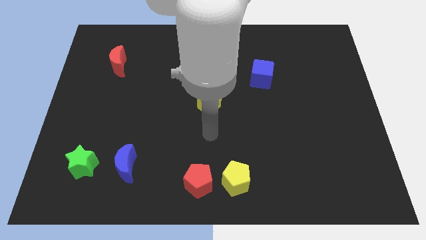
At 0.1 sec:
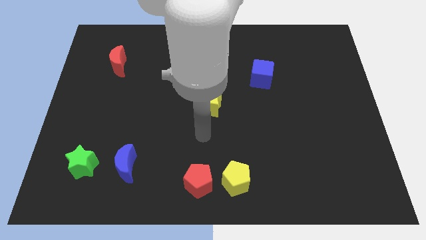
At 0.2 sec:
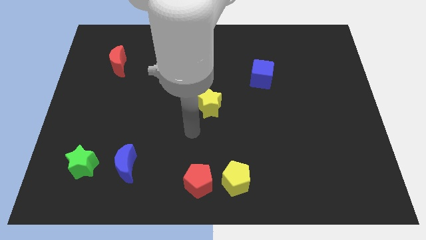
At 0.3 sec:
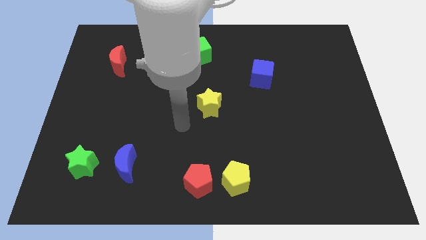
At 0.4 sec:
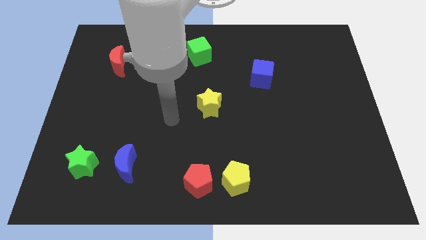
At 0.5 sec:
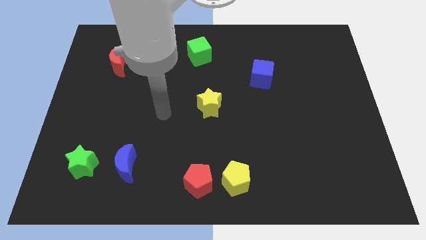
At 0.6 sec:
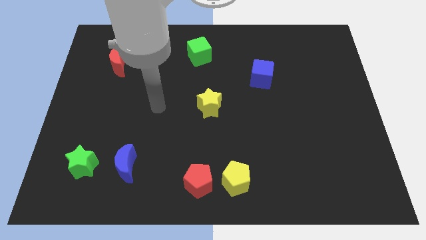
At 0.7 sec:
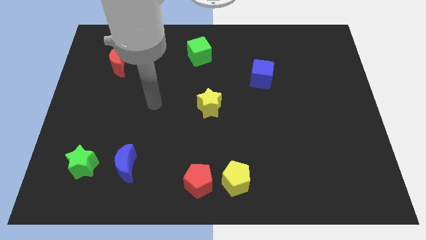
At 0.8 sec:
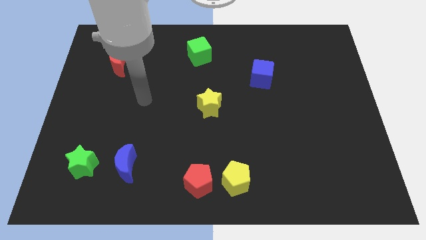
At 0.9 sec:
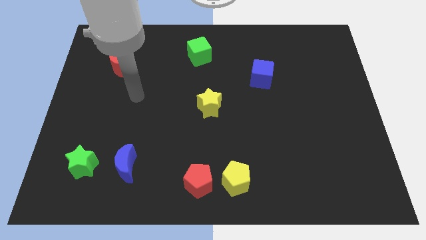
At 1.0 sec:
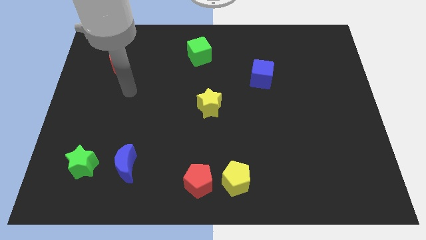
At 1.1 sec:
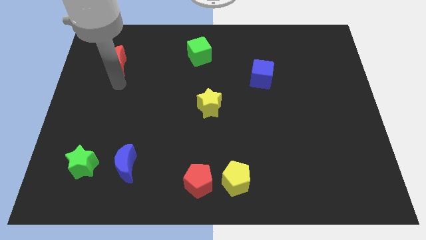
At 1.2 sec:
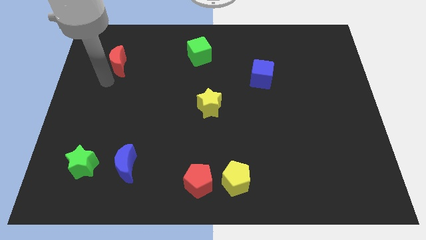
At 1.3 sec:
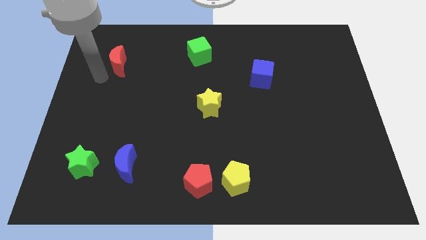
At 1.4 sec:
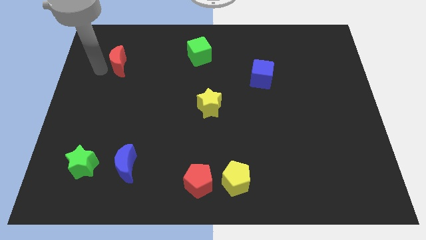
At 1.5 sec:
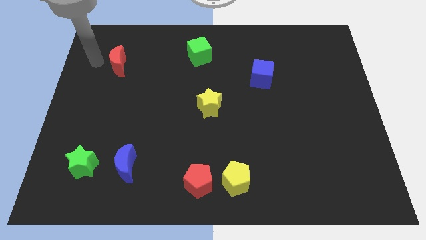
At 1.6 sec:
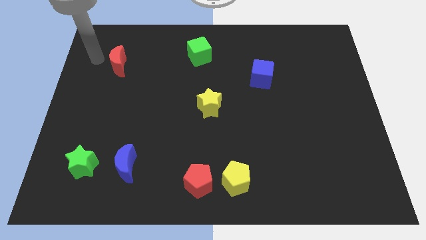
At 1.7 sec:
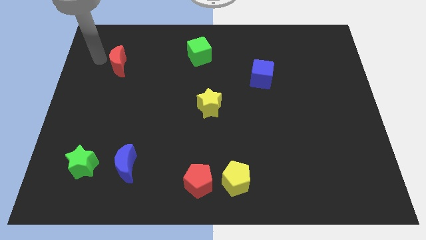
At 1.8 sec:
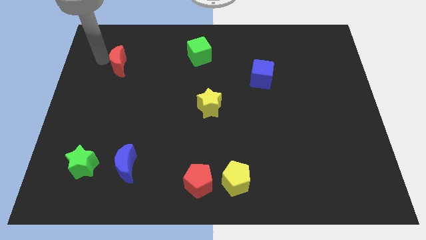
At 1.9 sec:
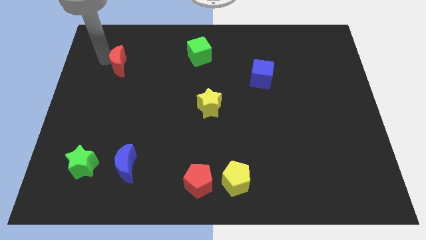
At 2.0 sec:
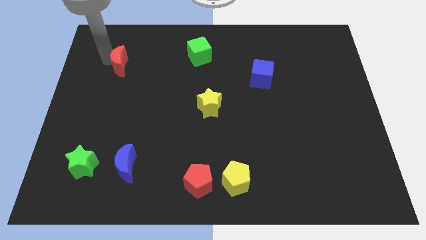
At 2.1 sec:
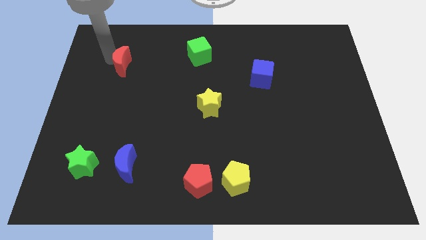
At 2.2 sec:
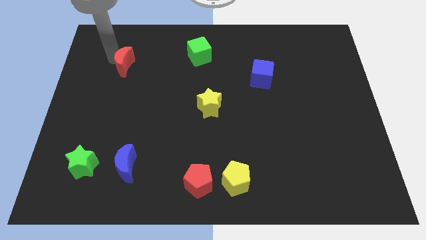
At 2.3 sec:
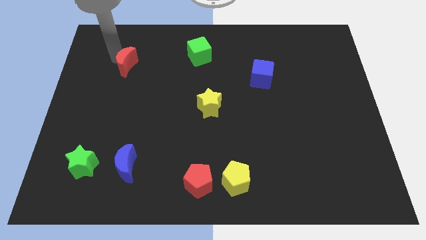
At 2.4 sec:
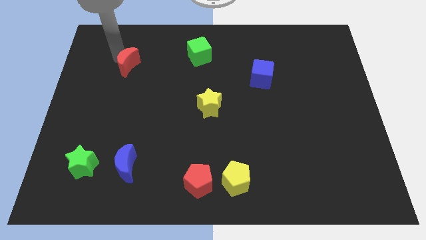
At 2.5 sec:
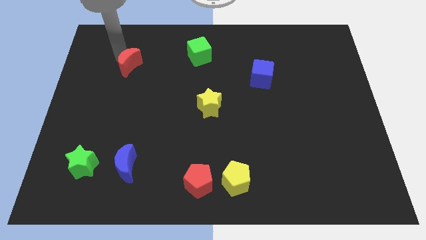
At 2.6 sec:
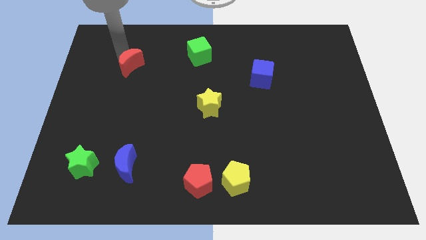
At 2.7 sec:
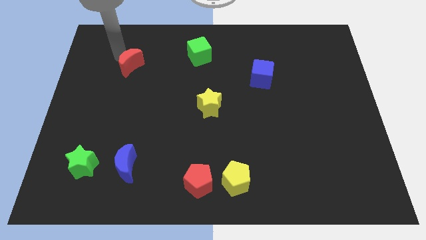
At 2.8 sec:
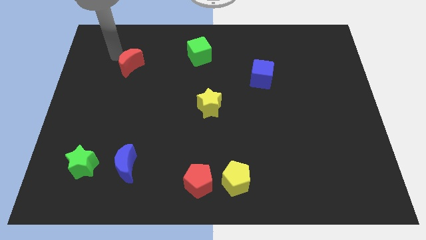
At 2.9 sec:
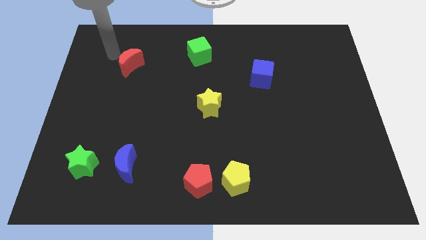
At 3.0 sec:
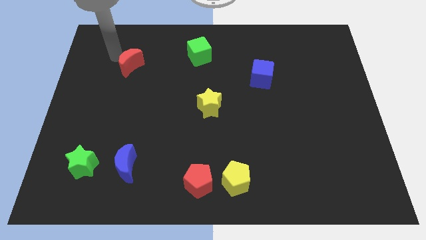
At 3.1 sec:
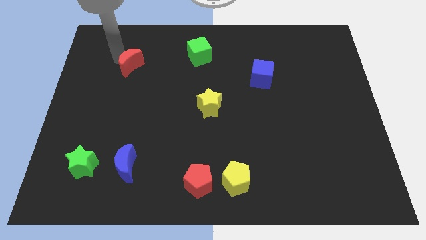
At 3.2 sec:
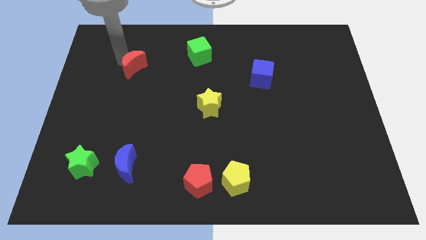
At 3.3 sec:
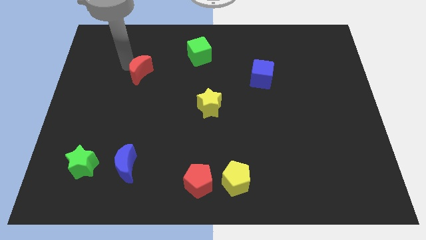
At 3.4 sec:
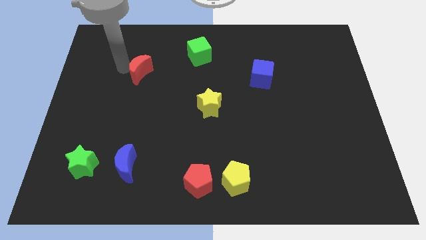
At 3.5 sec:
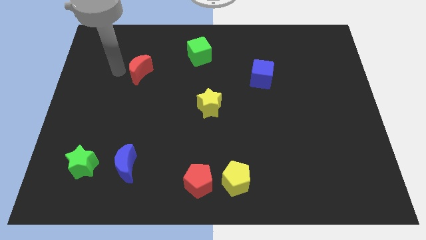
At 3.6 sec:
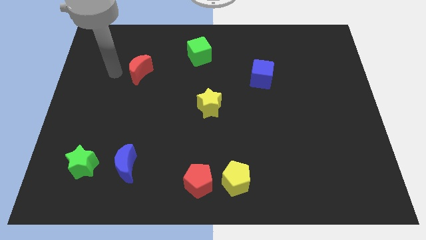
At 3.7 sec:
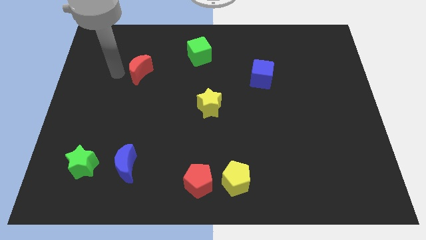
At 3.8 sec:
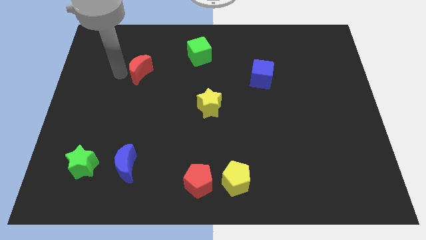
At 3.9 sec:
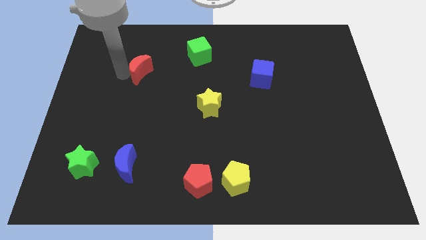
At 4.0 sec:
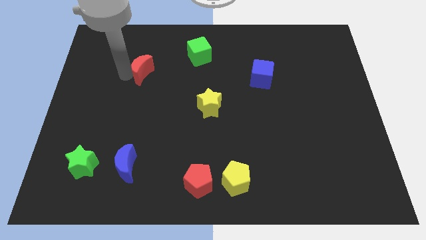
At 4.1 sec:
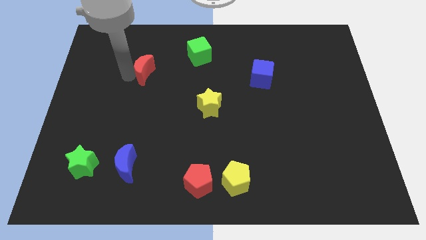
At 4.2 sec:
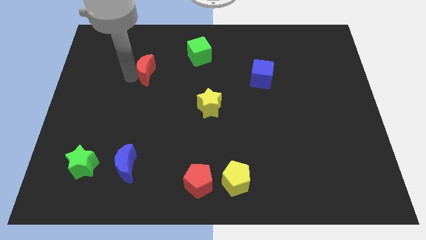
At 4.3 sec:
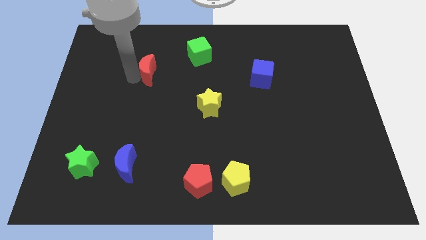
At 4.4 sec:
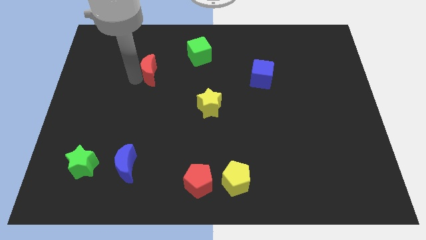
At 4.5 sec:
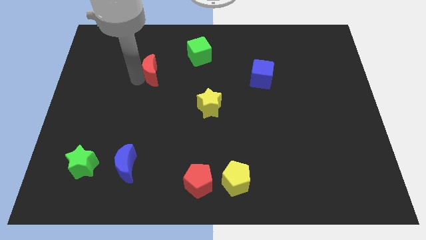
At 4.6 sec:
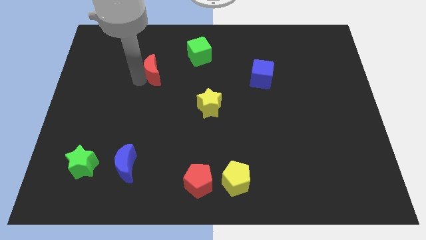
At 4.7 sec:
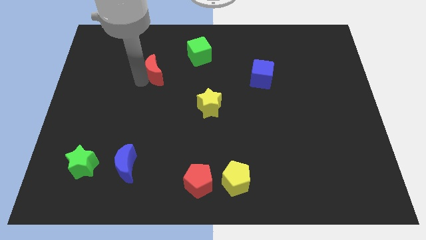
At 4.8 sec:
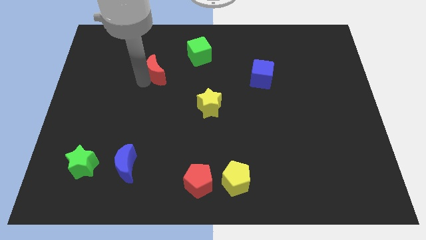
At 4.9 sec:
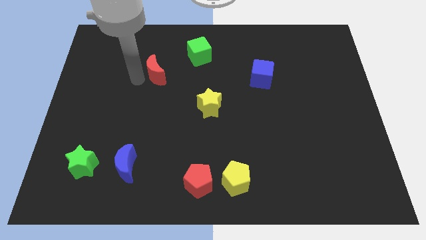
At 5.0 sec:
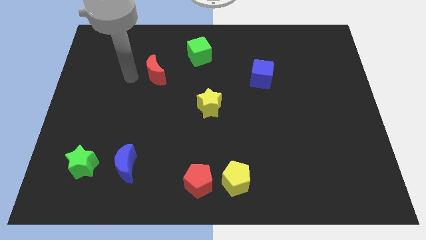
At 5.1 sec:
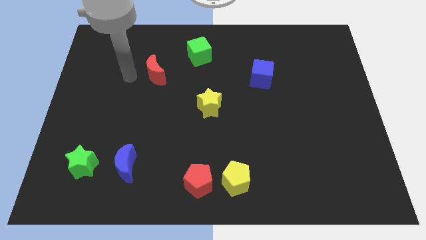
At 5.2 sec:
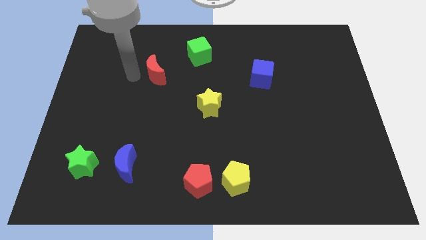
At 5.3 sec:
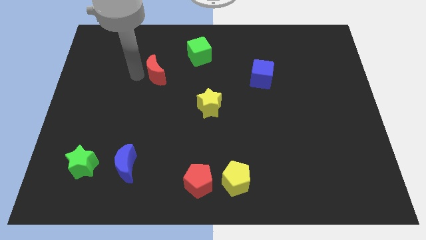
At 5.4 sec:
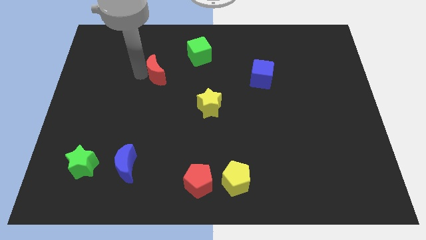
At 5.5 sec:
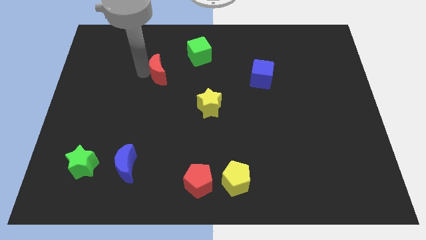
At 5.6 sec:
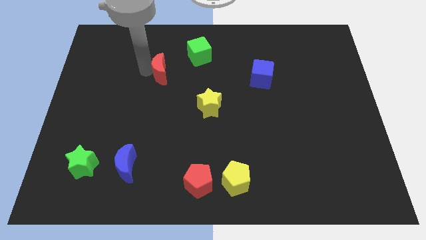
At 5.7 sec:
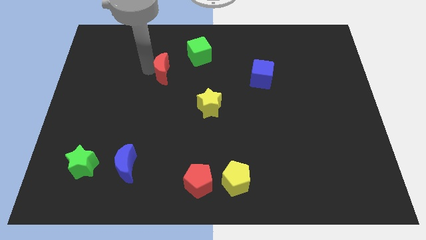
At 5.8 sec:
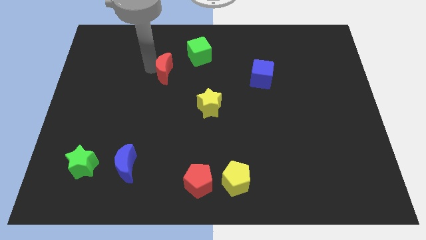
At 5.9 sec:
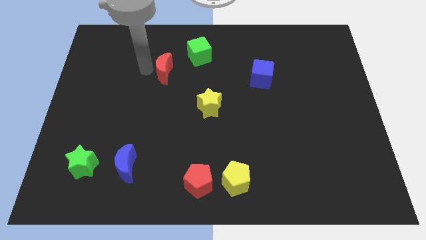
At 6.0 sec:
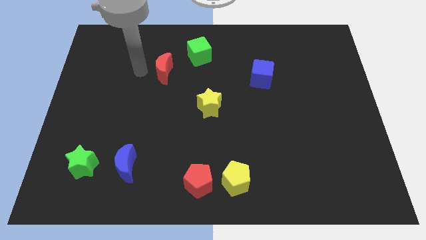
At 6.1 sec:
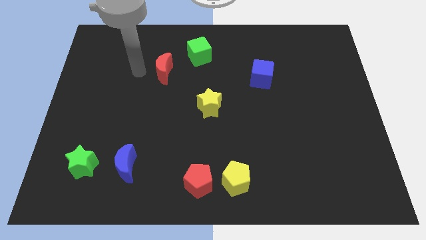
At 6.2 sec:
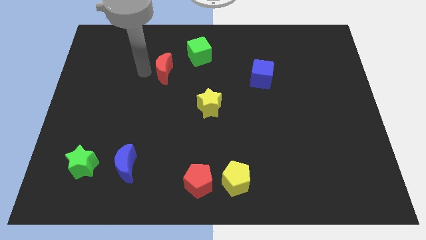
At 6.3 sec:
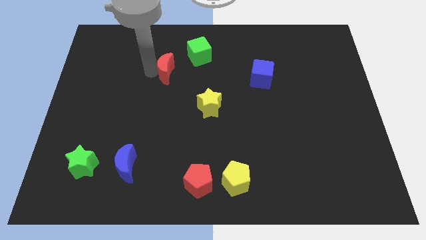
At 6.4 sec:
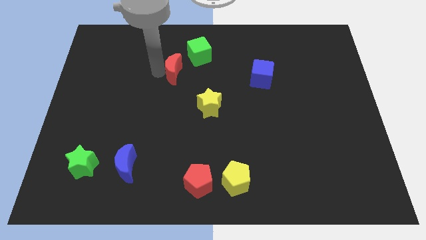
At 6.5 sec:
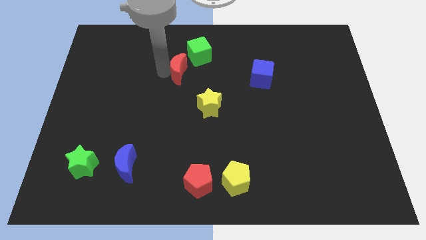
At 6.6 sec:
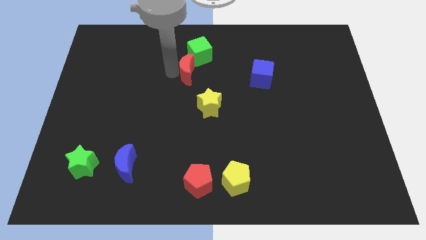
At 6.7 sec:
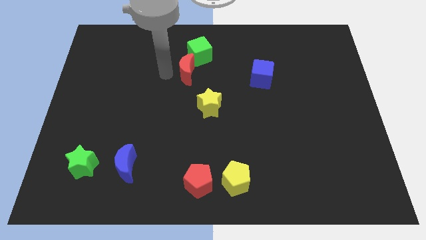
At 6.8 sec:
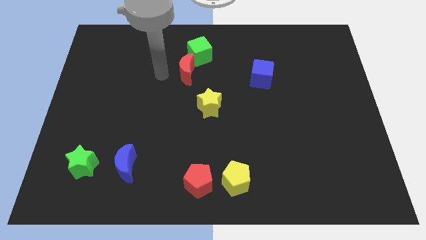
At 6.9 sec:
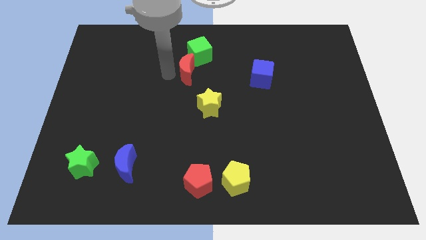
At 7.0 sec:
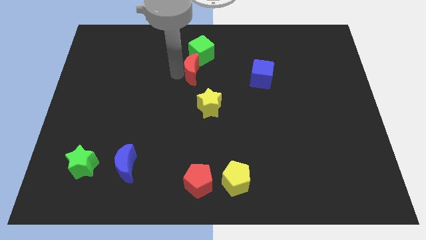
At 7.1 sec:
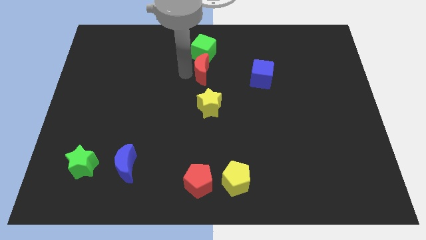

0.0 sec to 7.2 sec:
push the red moon right

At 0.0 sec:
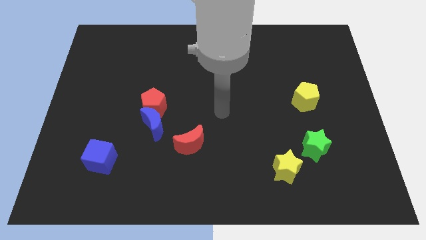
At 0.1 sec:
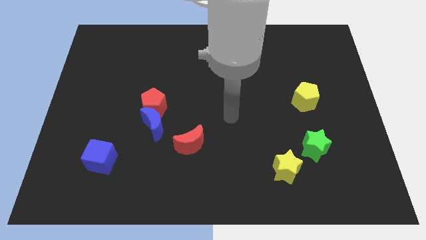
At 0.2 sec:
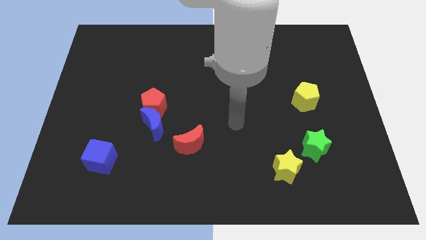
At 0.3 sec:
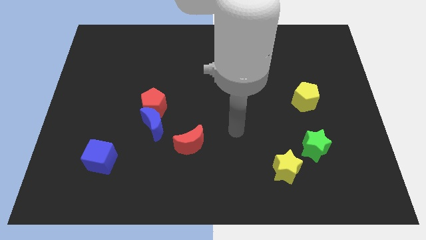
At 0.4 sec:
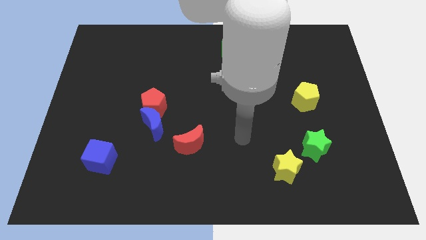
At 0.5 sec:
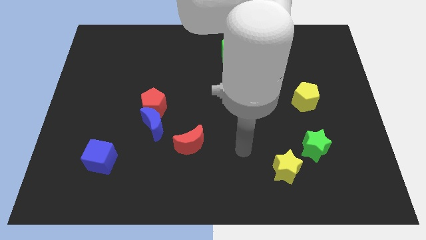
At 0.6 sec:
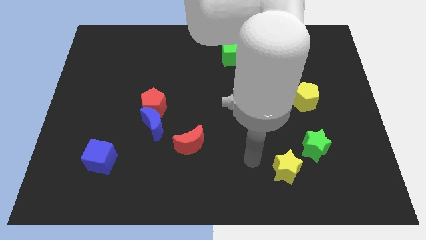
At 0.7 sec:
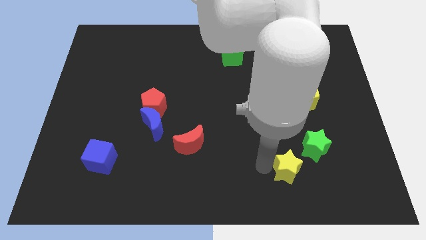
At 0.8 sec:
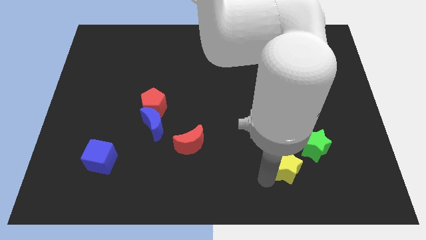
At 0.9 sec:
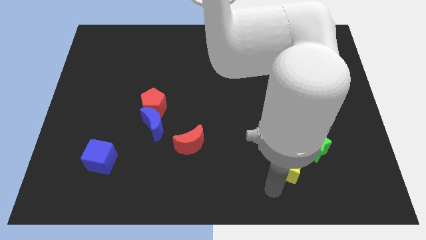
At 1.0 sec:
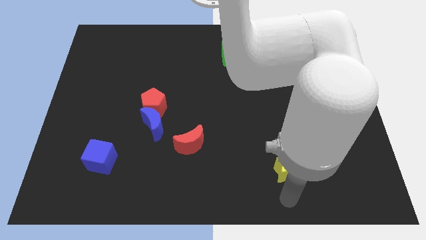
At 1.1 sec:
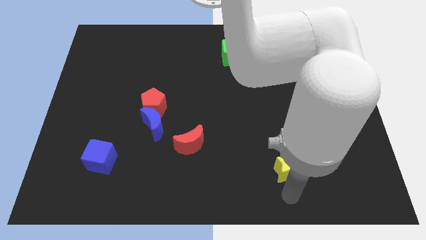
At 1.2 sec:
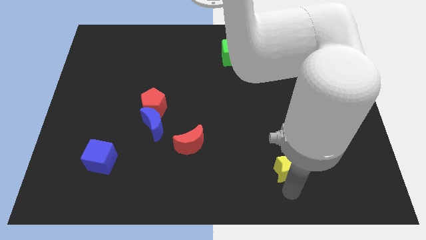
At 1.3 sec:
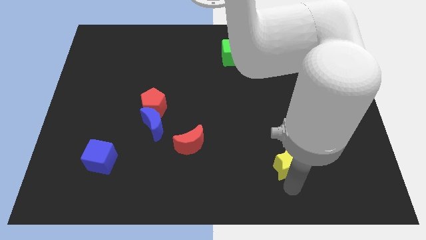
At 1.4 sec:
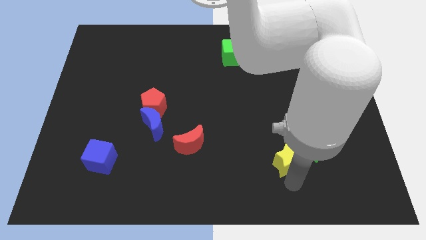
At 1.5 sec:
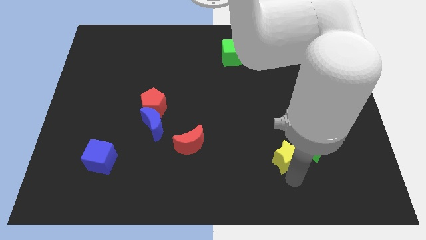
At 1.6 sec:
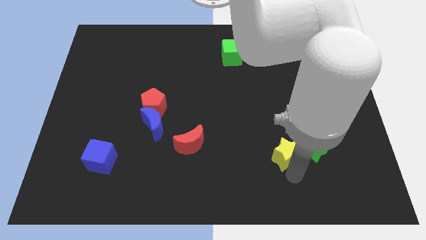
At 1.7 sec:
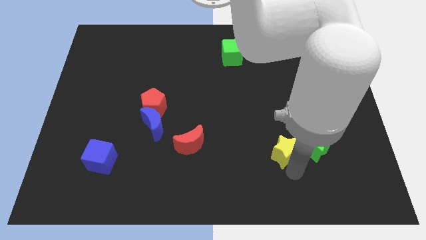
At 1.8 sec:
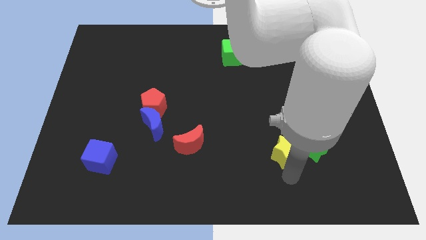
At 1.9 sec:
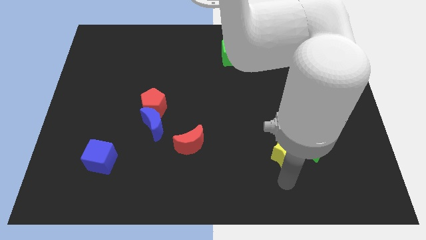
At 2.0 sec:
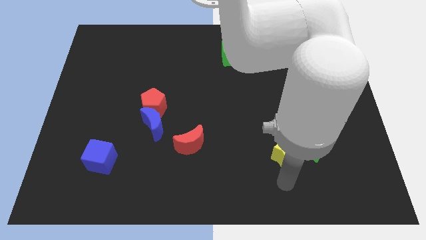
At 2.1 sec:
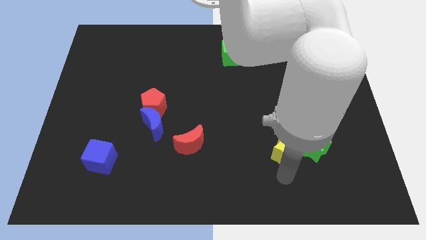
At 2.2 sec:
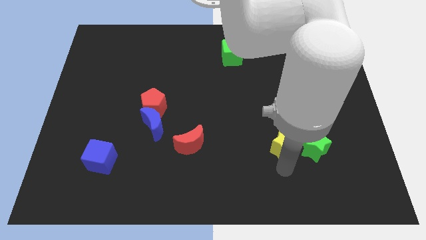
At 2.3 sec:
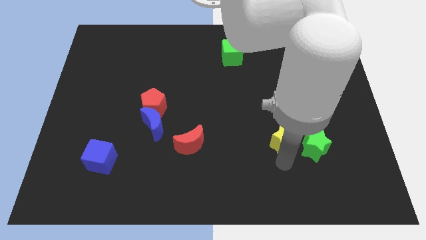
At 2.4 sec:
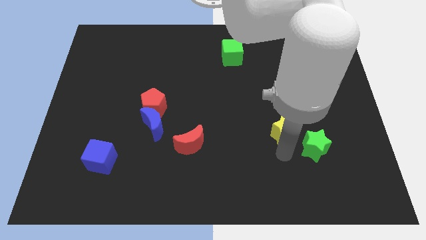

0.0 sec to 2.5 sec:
move the yellow star upwards a bit
